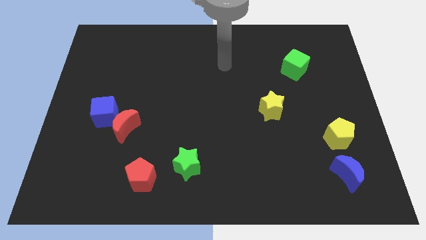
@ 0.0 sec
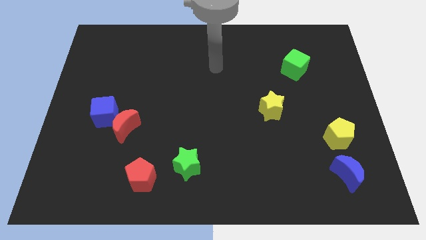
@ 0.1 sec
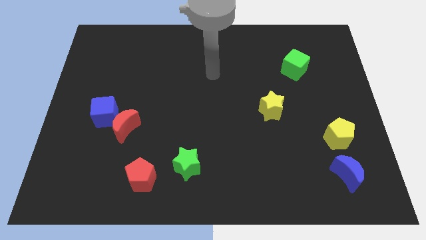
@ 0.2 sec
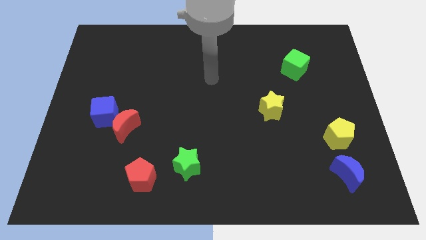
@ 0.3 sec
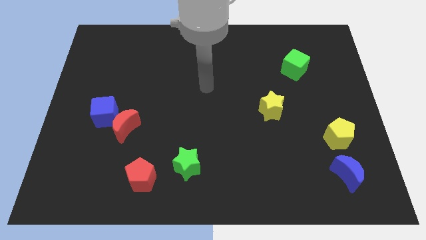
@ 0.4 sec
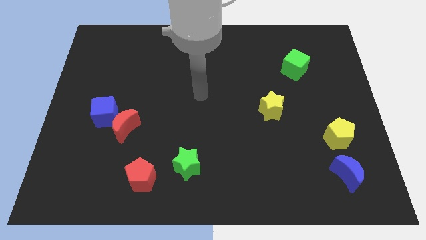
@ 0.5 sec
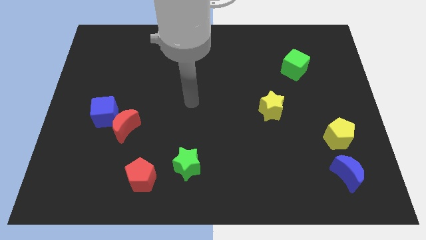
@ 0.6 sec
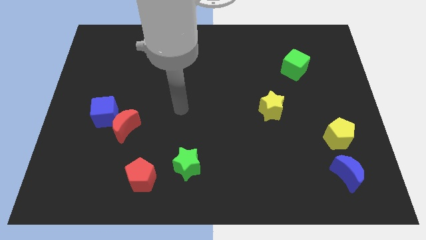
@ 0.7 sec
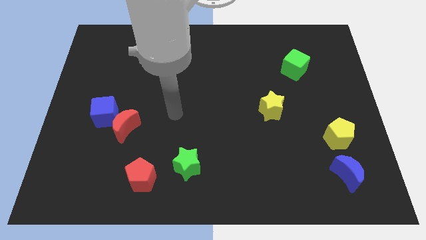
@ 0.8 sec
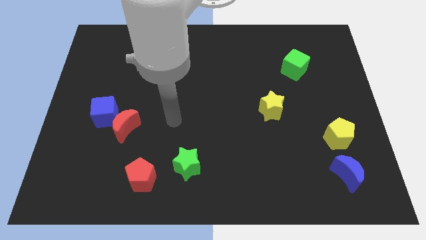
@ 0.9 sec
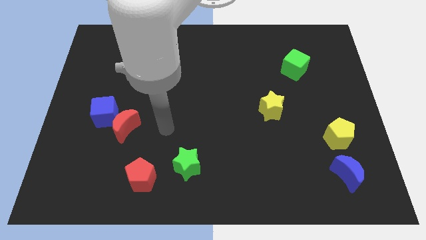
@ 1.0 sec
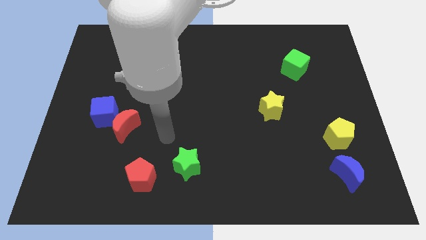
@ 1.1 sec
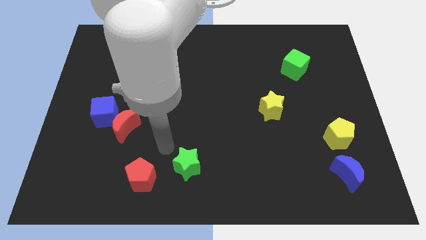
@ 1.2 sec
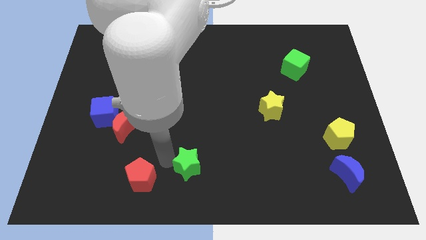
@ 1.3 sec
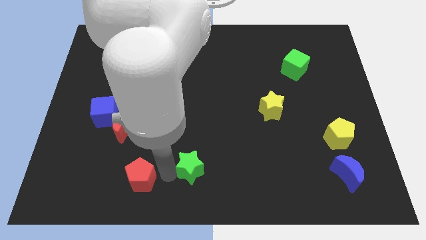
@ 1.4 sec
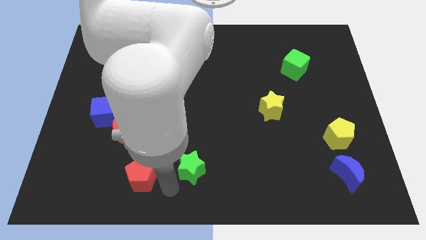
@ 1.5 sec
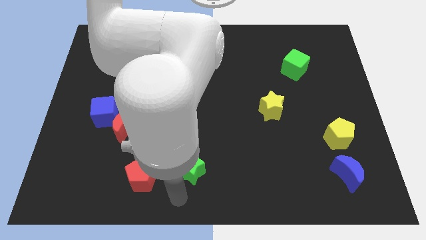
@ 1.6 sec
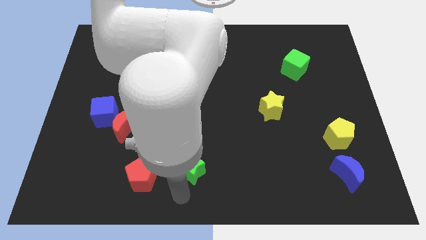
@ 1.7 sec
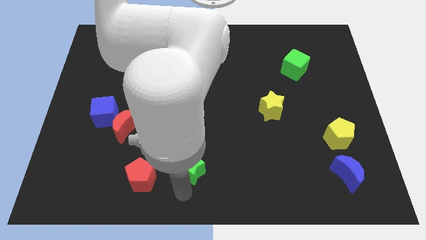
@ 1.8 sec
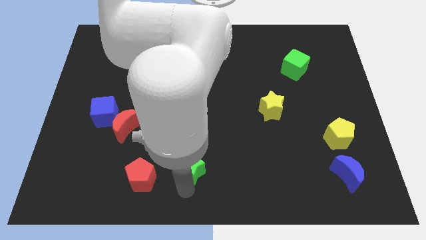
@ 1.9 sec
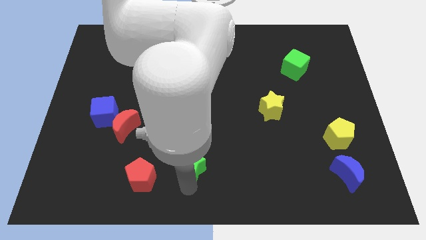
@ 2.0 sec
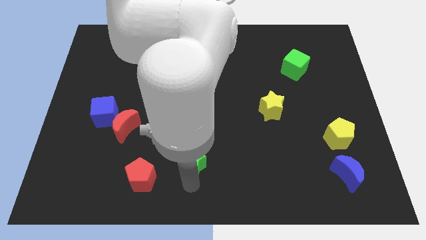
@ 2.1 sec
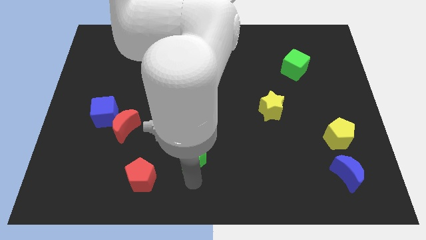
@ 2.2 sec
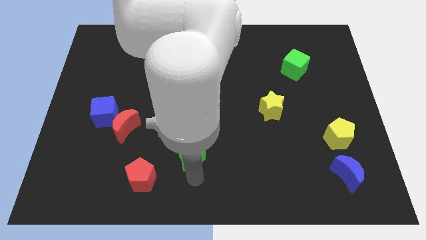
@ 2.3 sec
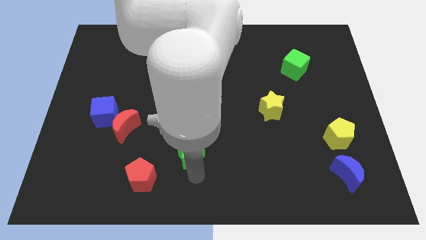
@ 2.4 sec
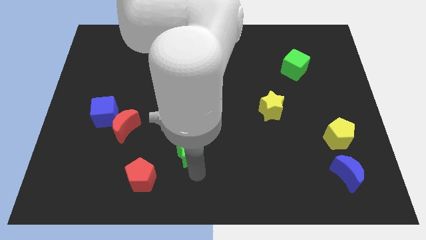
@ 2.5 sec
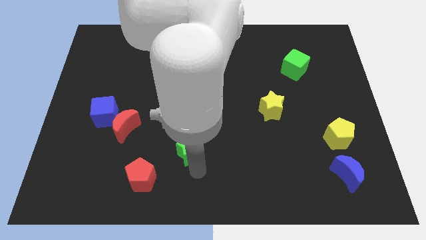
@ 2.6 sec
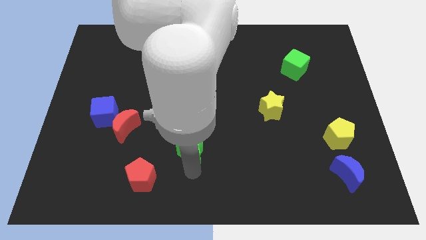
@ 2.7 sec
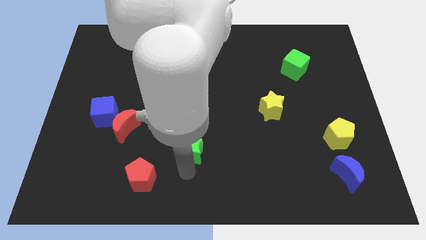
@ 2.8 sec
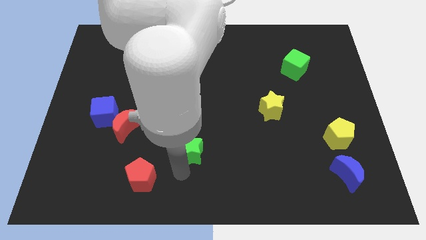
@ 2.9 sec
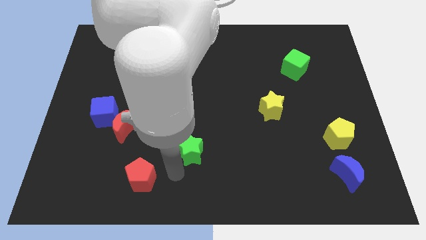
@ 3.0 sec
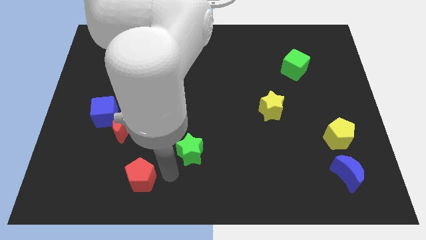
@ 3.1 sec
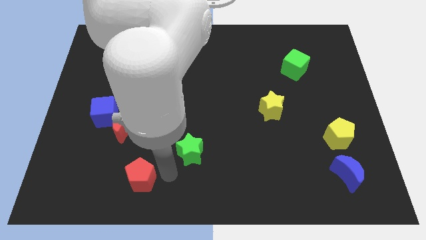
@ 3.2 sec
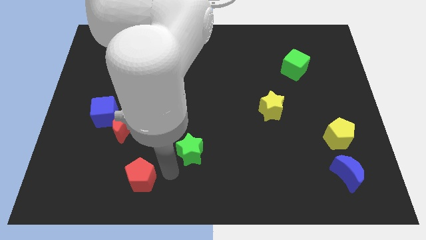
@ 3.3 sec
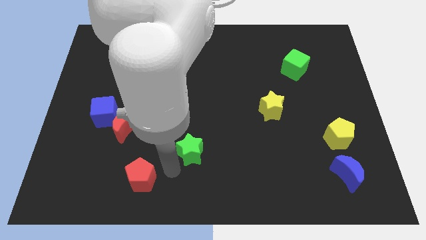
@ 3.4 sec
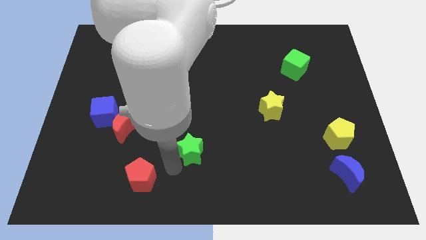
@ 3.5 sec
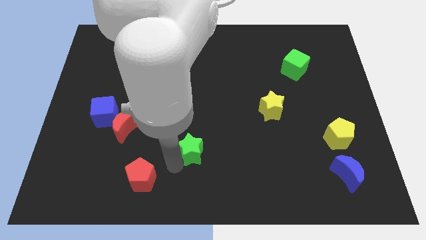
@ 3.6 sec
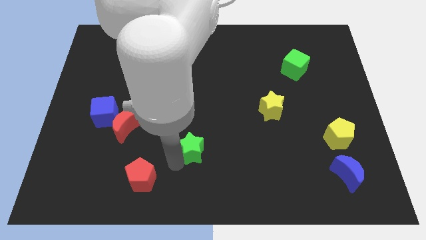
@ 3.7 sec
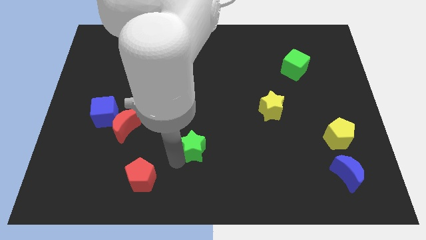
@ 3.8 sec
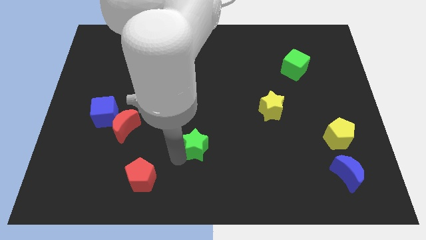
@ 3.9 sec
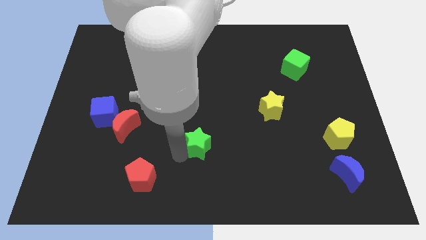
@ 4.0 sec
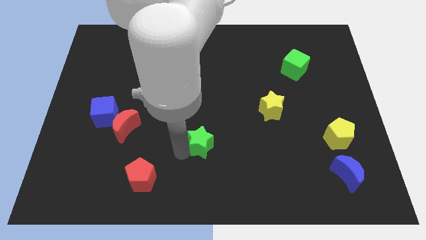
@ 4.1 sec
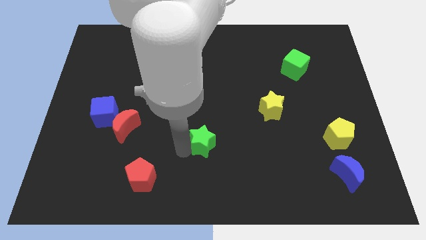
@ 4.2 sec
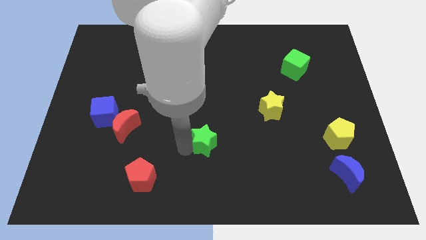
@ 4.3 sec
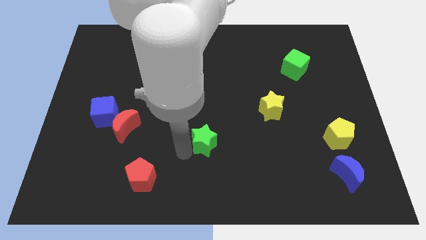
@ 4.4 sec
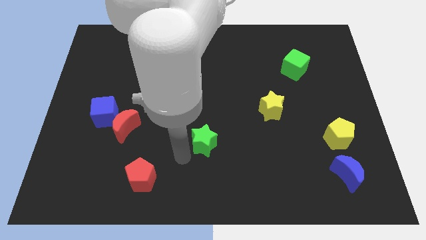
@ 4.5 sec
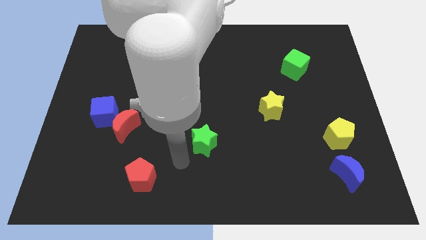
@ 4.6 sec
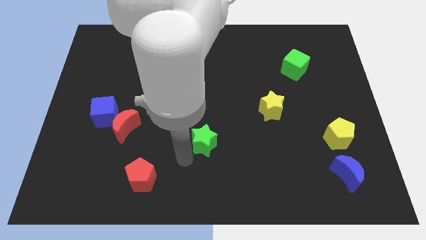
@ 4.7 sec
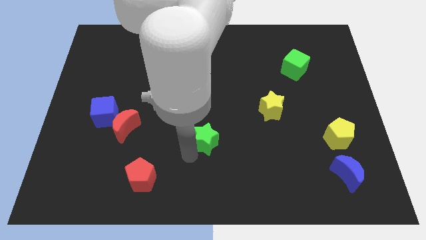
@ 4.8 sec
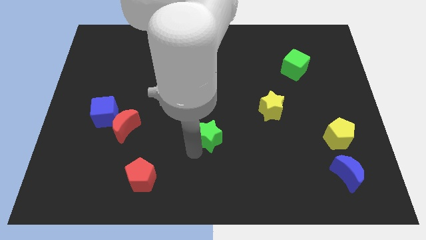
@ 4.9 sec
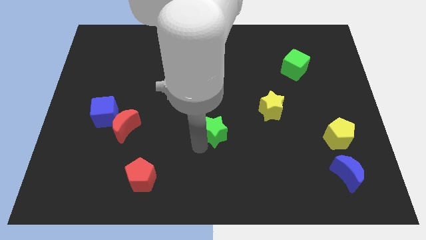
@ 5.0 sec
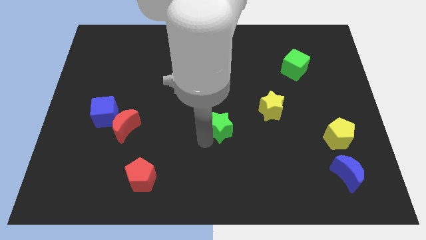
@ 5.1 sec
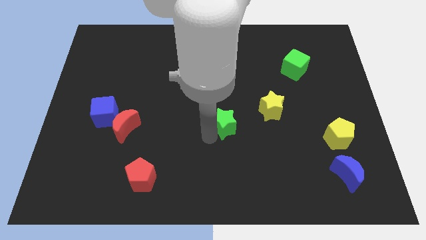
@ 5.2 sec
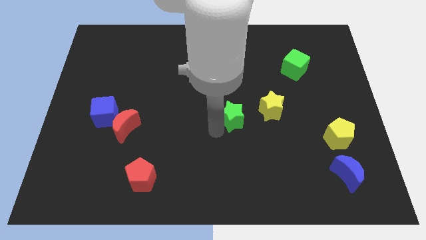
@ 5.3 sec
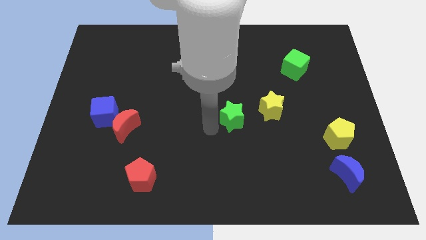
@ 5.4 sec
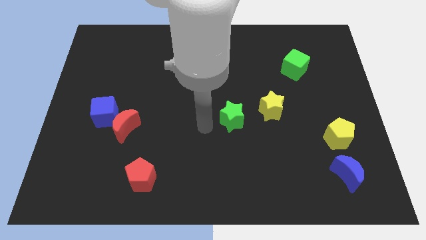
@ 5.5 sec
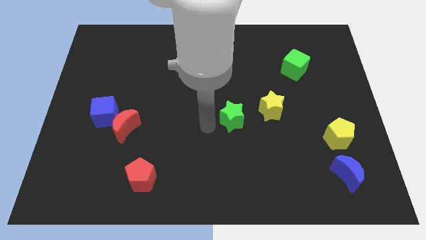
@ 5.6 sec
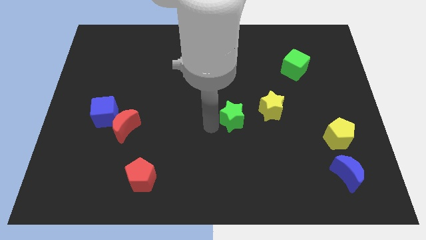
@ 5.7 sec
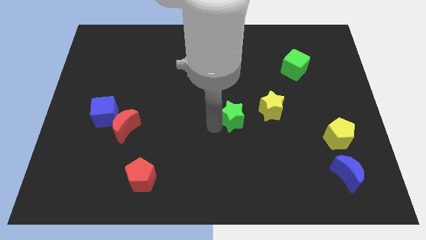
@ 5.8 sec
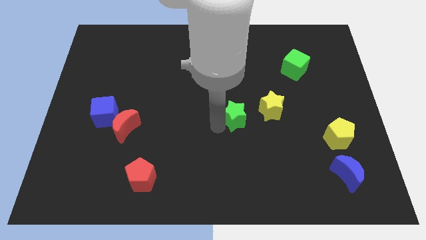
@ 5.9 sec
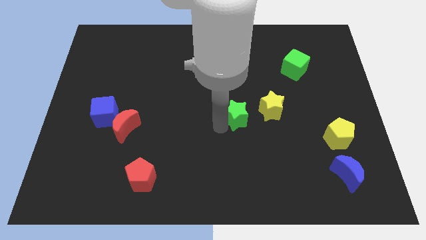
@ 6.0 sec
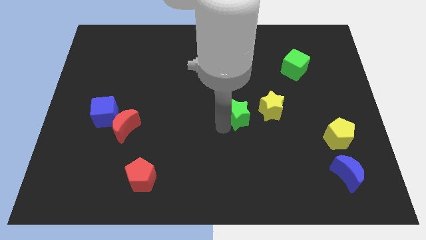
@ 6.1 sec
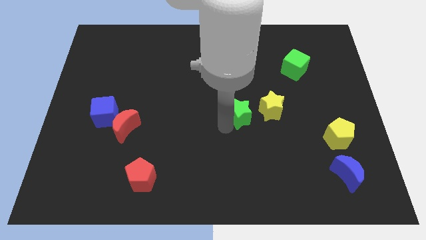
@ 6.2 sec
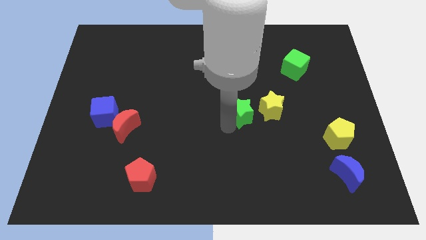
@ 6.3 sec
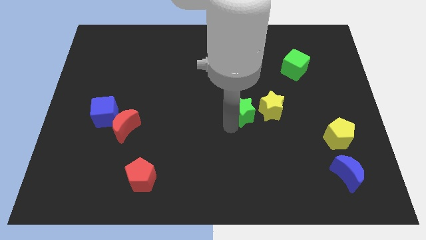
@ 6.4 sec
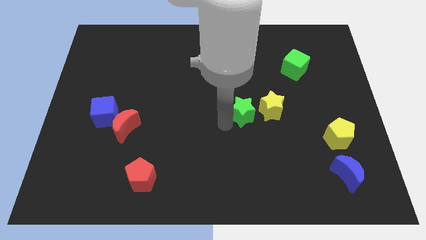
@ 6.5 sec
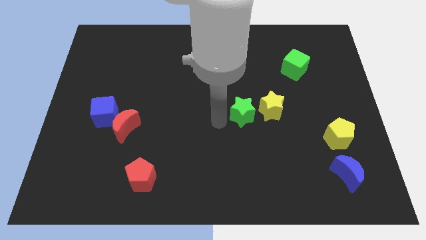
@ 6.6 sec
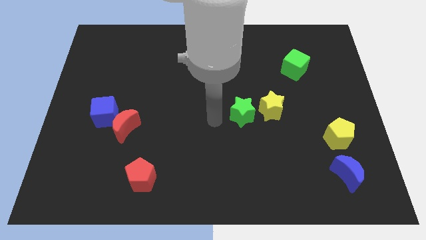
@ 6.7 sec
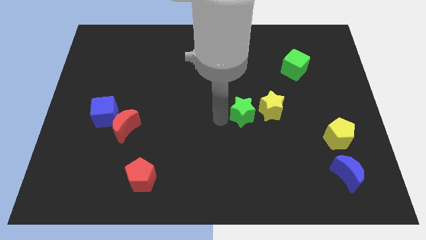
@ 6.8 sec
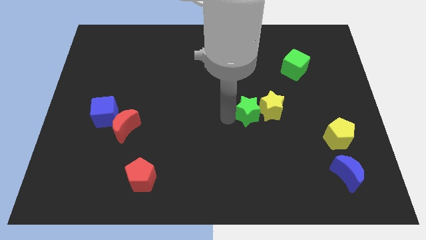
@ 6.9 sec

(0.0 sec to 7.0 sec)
move the green star to the yellow star
